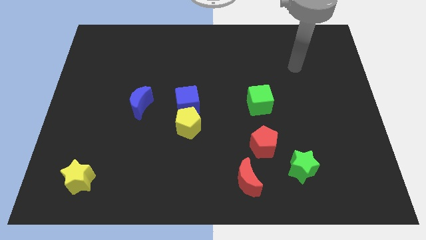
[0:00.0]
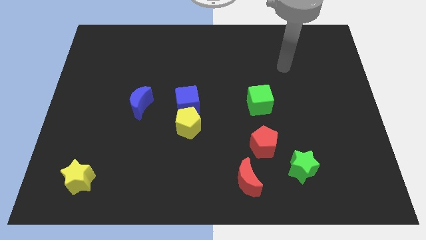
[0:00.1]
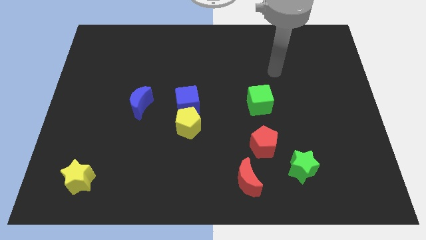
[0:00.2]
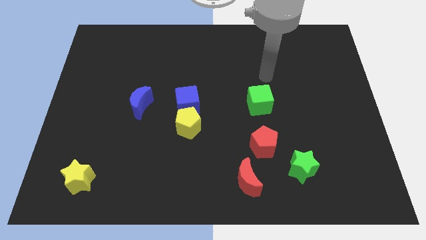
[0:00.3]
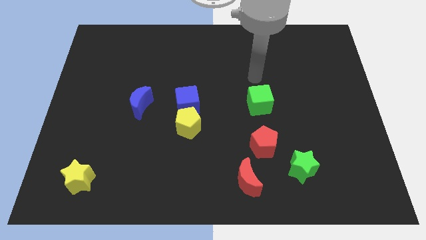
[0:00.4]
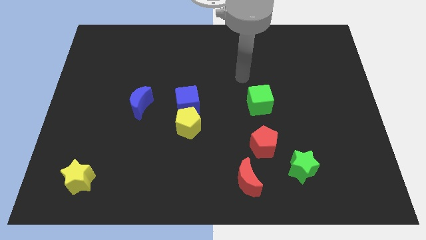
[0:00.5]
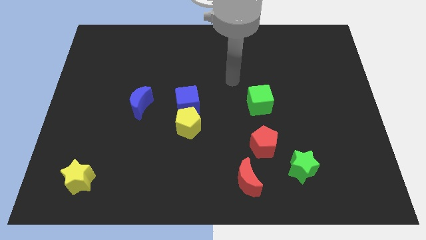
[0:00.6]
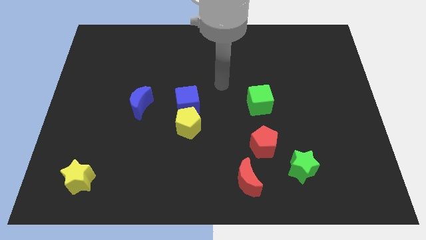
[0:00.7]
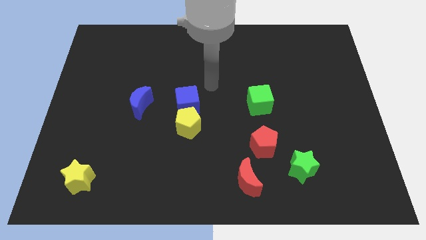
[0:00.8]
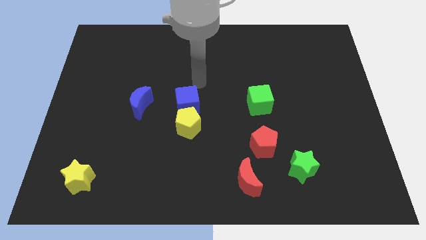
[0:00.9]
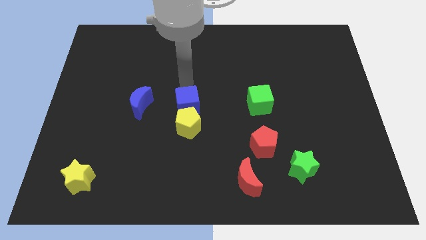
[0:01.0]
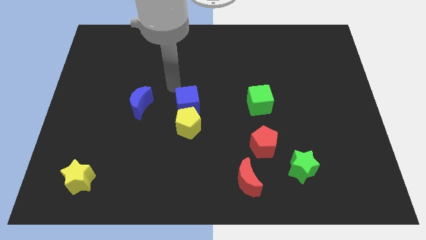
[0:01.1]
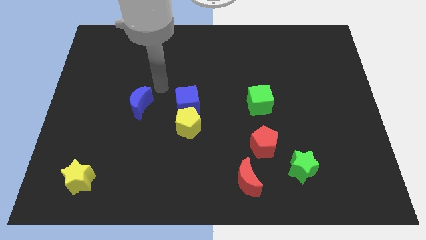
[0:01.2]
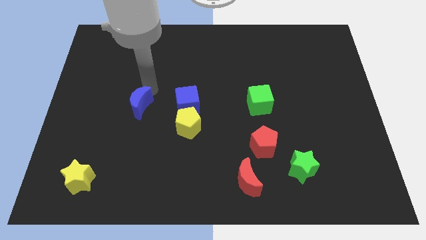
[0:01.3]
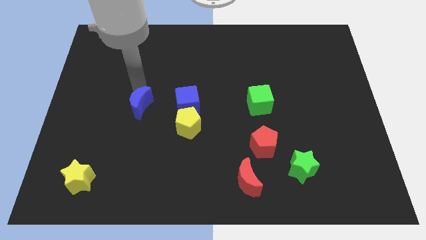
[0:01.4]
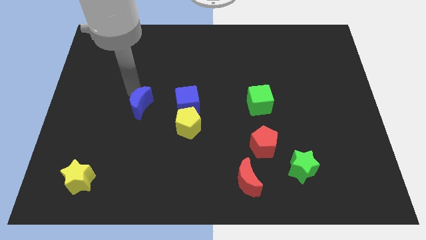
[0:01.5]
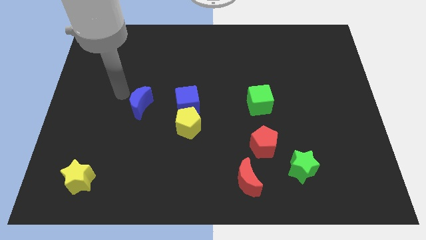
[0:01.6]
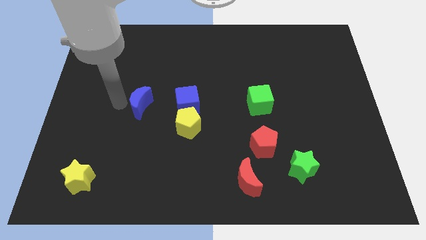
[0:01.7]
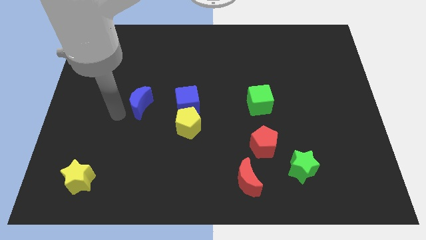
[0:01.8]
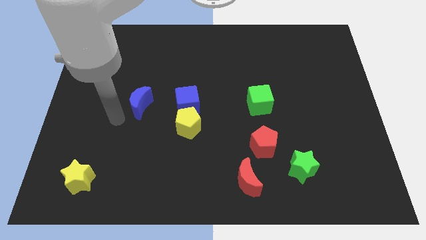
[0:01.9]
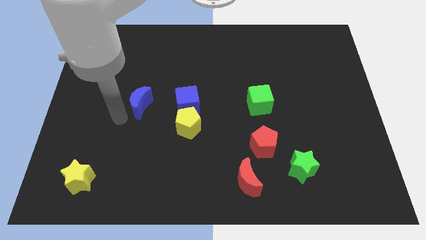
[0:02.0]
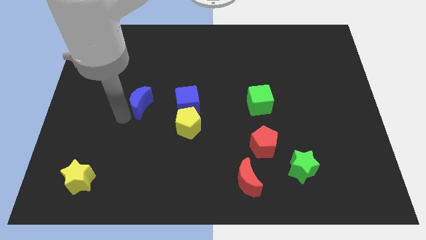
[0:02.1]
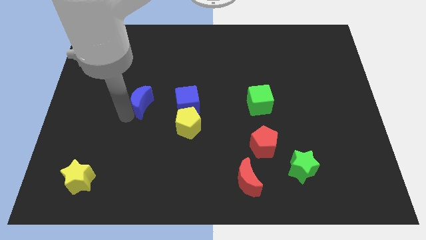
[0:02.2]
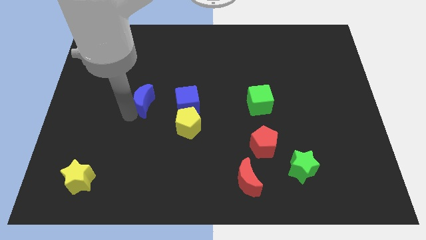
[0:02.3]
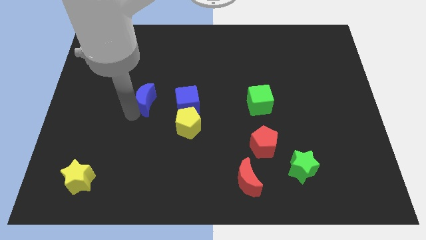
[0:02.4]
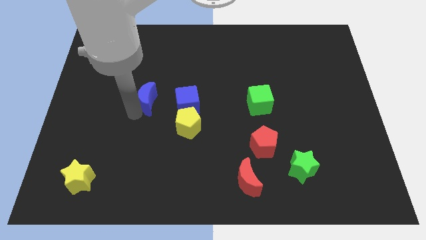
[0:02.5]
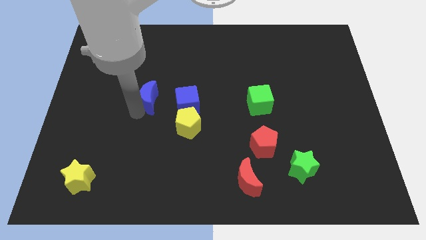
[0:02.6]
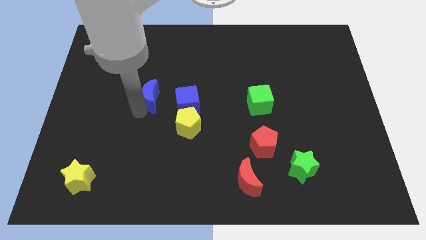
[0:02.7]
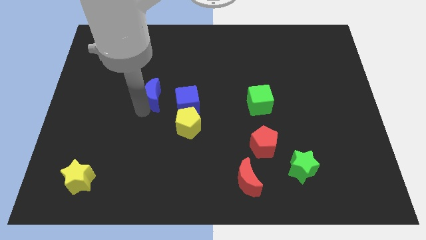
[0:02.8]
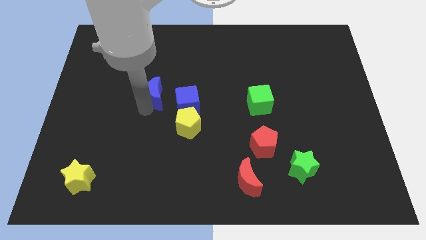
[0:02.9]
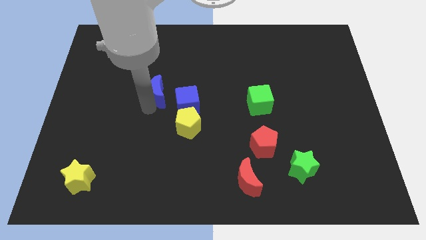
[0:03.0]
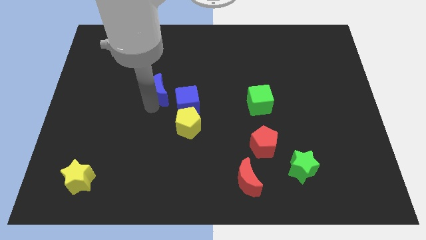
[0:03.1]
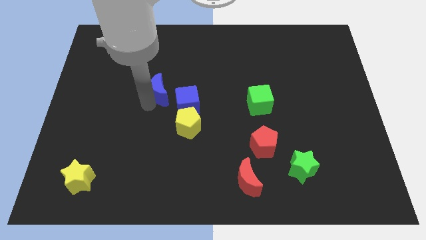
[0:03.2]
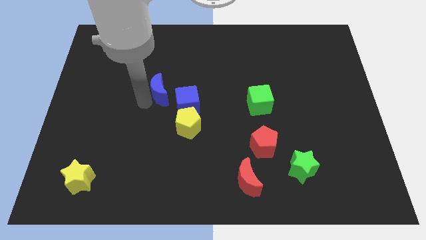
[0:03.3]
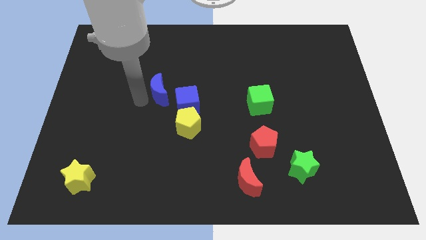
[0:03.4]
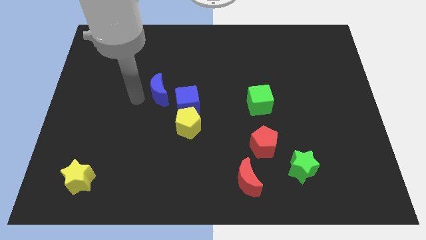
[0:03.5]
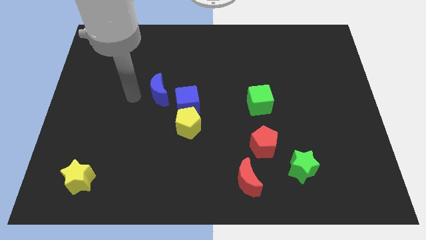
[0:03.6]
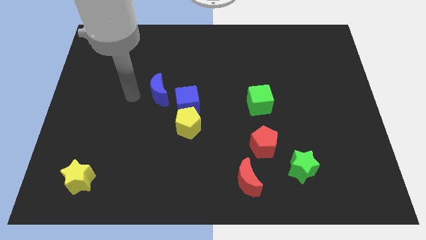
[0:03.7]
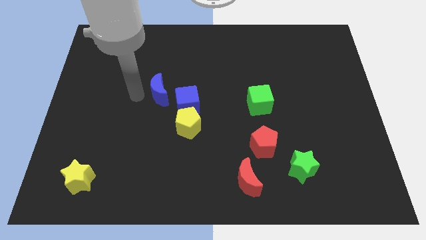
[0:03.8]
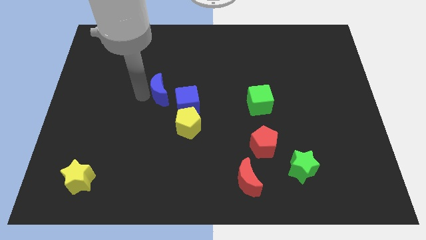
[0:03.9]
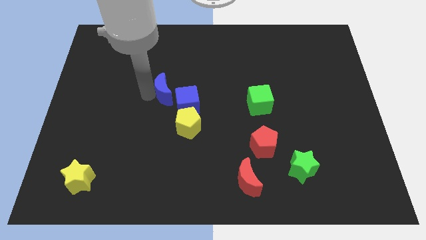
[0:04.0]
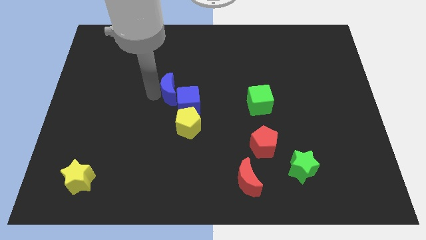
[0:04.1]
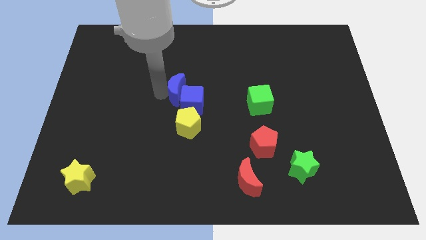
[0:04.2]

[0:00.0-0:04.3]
slide the blue moon to the right a bit

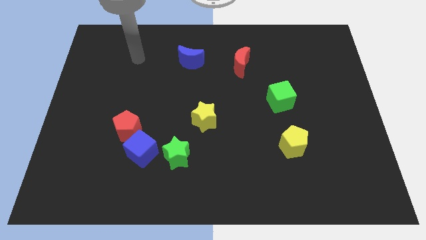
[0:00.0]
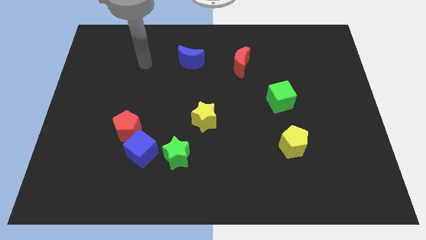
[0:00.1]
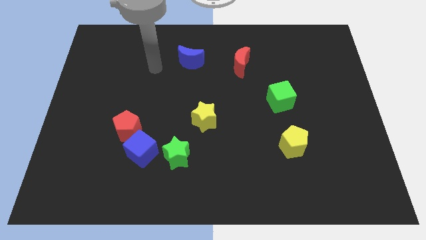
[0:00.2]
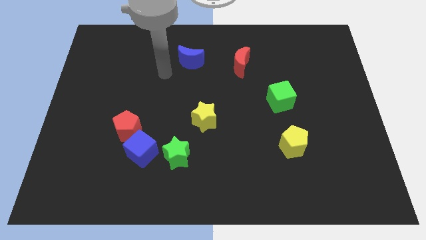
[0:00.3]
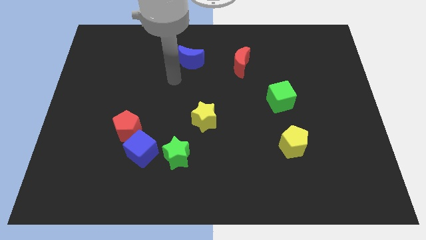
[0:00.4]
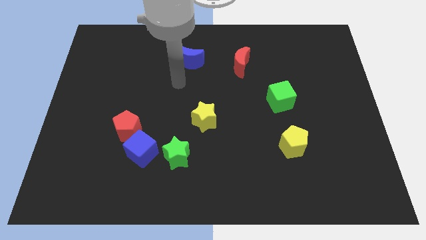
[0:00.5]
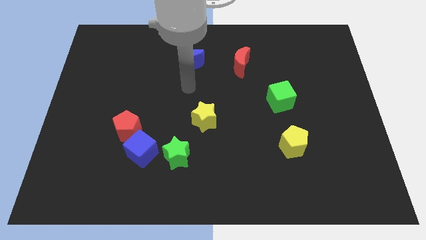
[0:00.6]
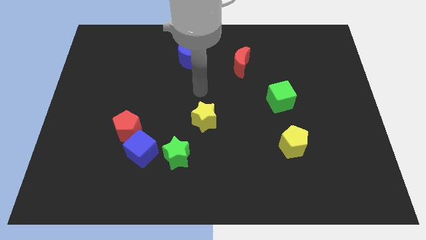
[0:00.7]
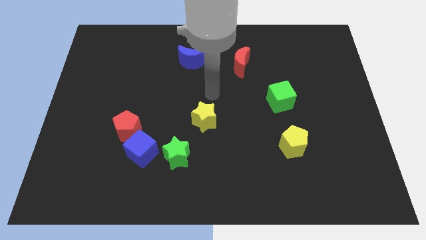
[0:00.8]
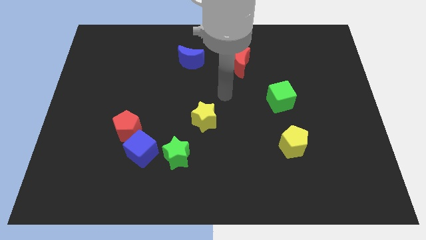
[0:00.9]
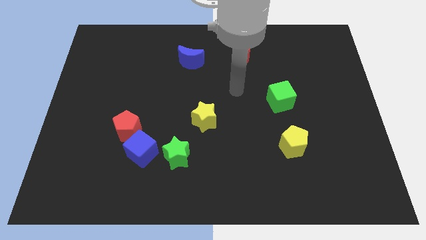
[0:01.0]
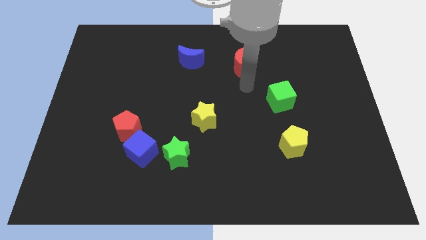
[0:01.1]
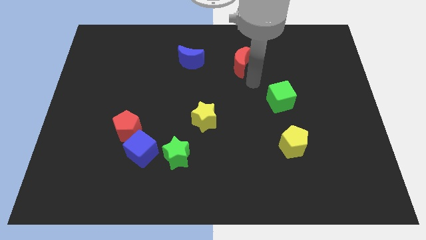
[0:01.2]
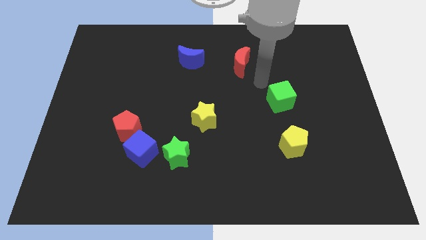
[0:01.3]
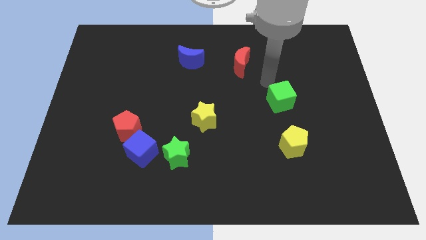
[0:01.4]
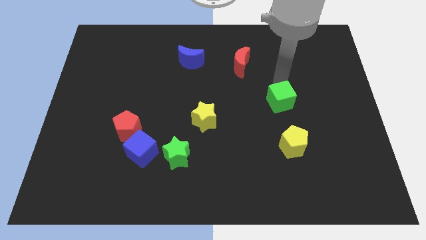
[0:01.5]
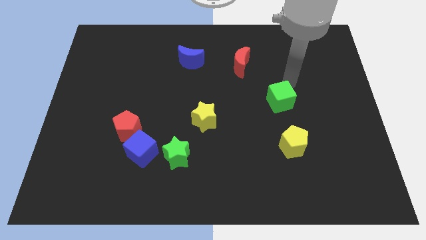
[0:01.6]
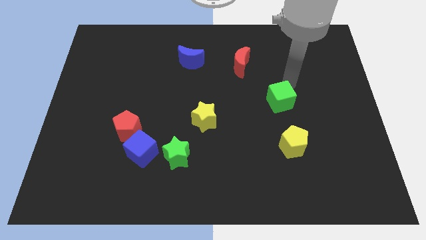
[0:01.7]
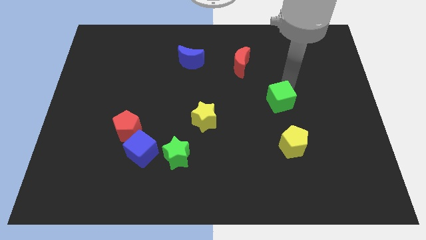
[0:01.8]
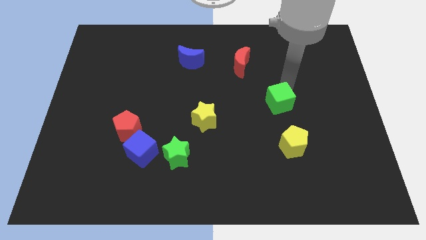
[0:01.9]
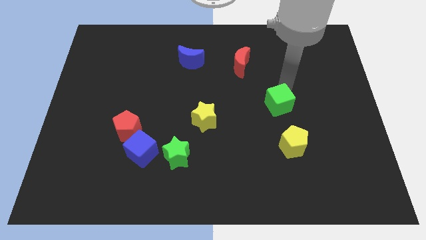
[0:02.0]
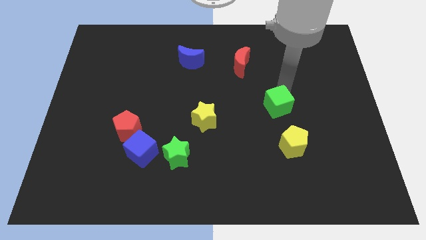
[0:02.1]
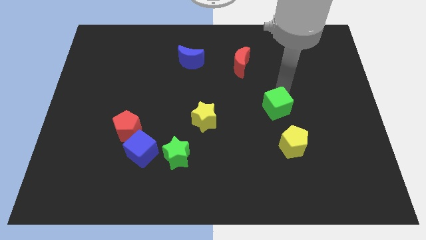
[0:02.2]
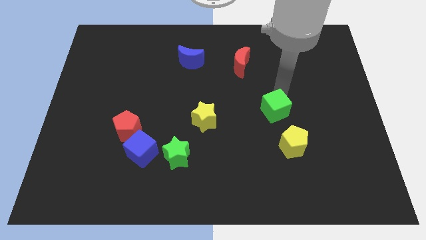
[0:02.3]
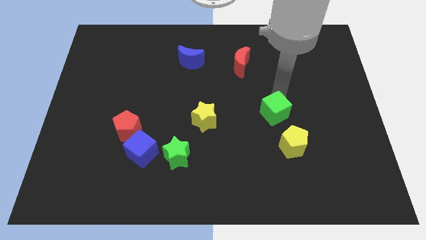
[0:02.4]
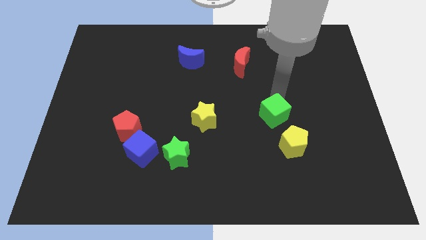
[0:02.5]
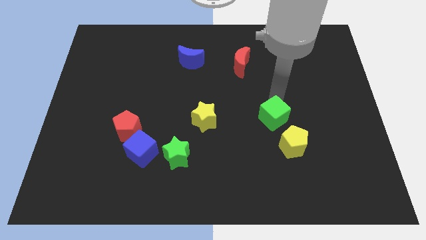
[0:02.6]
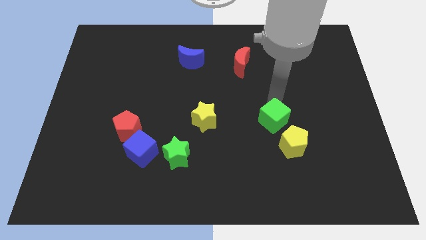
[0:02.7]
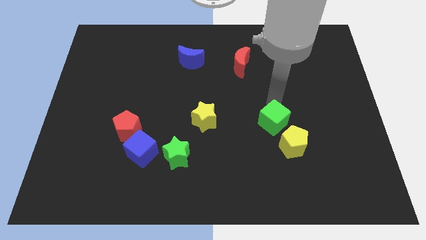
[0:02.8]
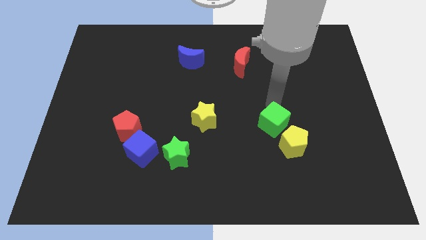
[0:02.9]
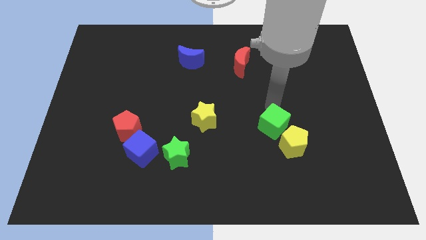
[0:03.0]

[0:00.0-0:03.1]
slightly push the green cube down

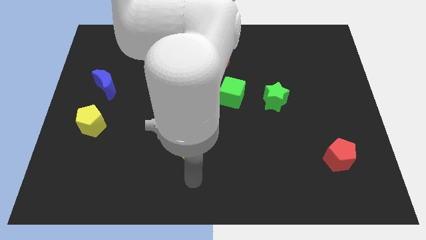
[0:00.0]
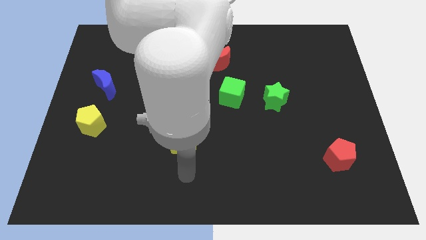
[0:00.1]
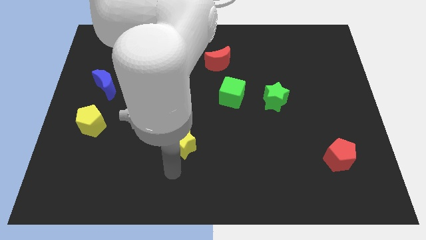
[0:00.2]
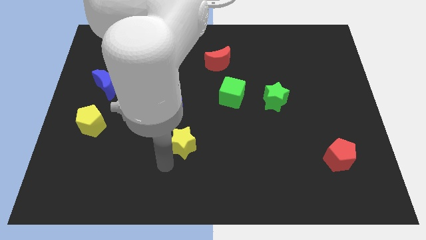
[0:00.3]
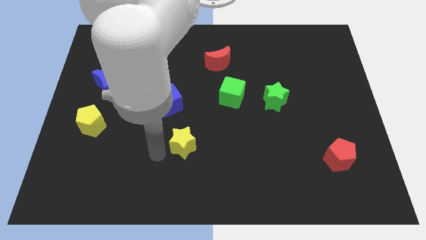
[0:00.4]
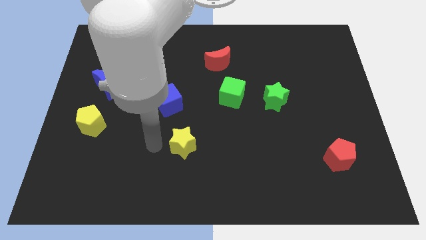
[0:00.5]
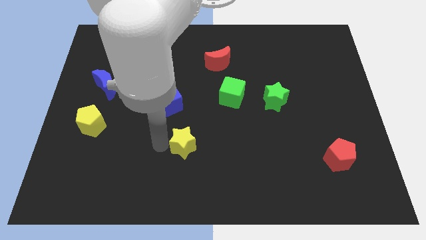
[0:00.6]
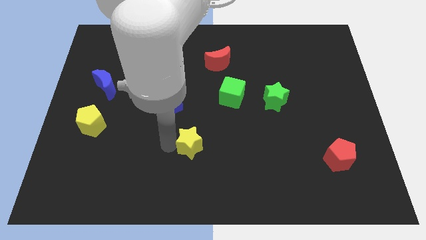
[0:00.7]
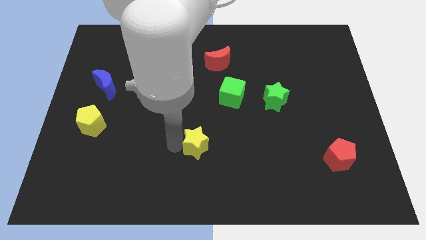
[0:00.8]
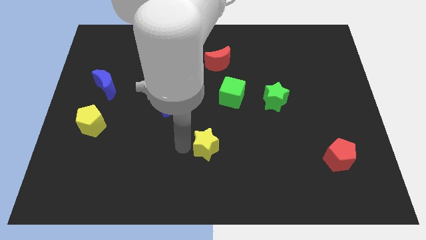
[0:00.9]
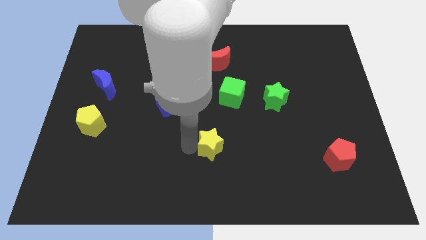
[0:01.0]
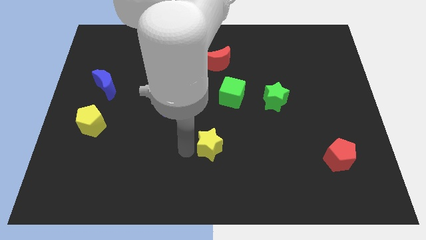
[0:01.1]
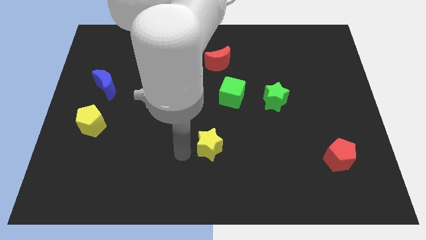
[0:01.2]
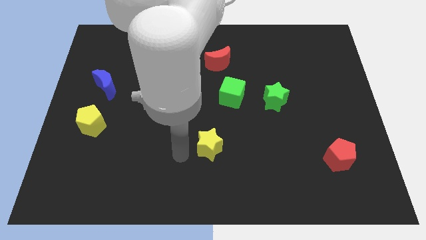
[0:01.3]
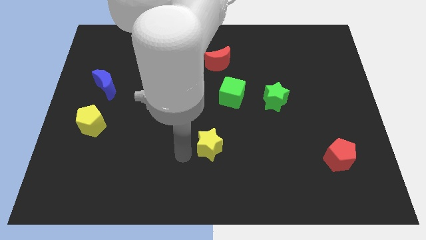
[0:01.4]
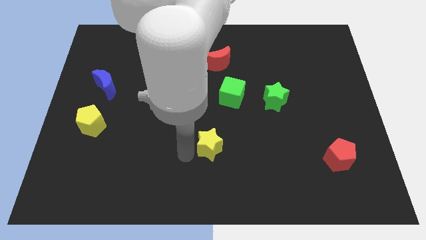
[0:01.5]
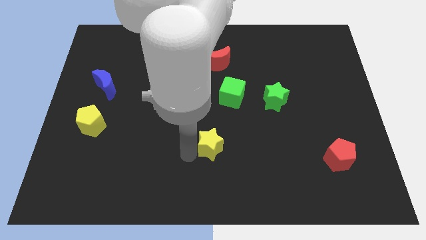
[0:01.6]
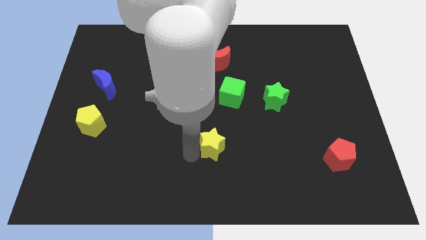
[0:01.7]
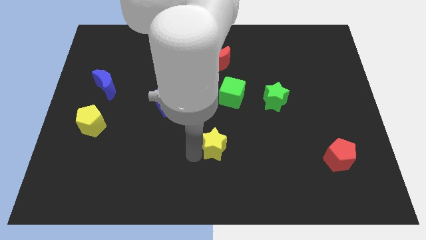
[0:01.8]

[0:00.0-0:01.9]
move the yellow star right slightly
